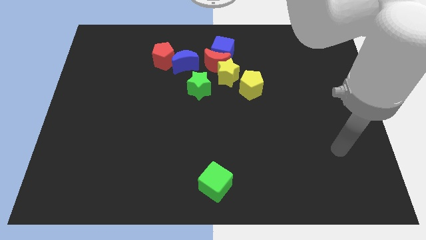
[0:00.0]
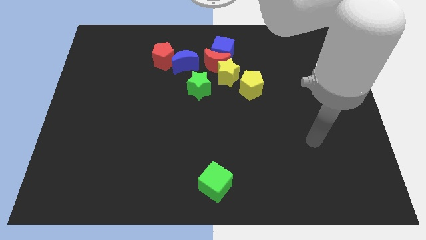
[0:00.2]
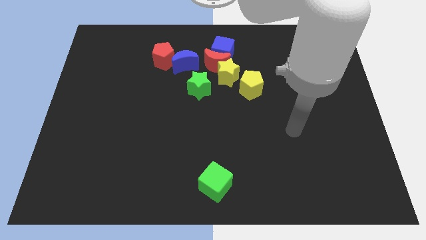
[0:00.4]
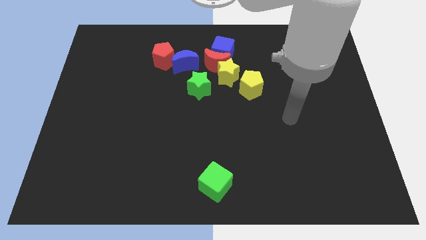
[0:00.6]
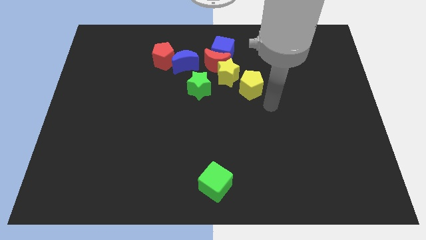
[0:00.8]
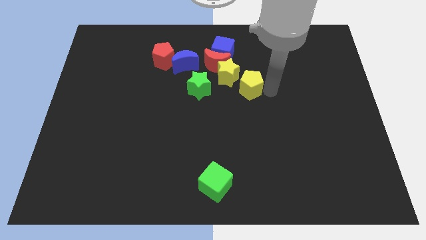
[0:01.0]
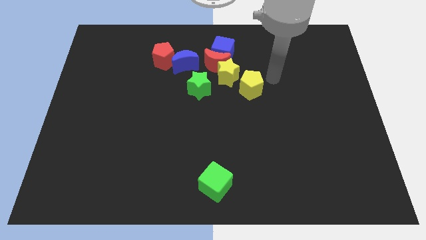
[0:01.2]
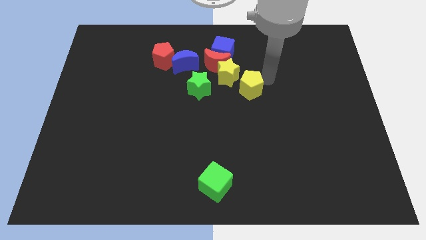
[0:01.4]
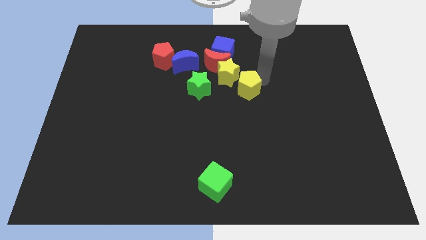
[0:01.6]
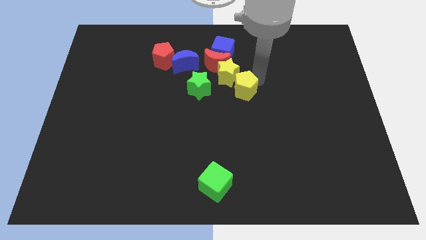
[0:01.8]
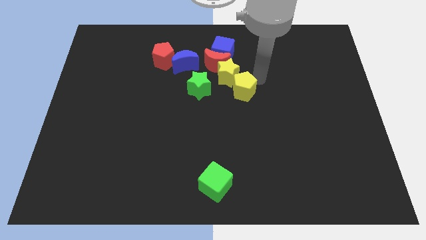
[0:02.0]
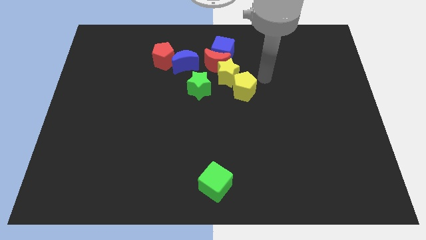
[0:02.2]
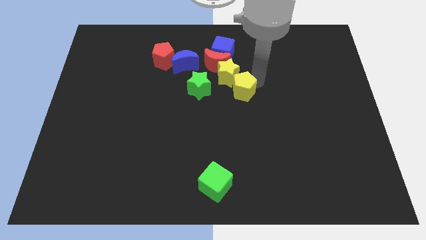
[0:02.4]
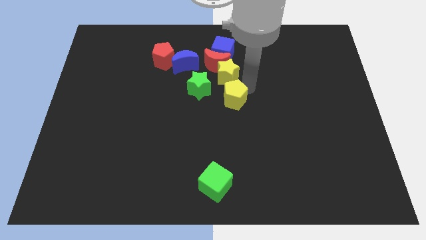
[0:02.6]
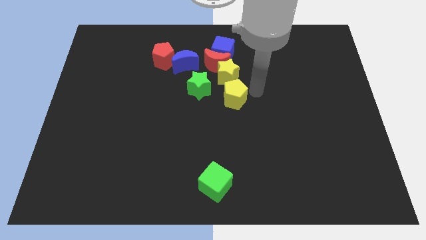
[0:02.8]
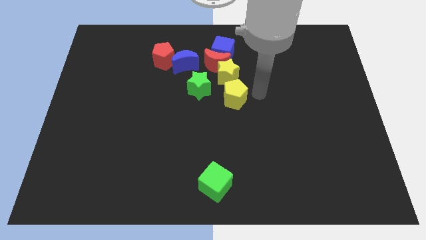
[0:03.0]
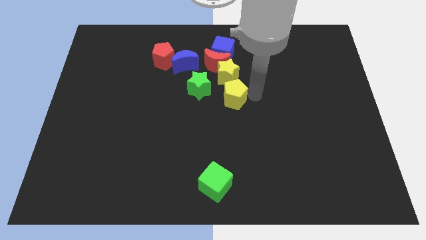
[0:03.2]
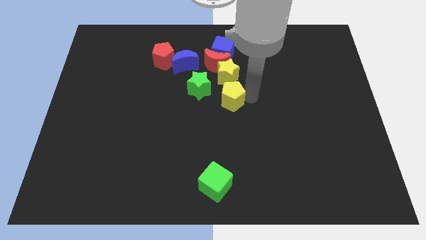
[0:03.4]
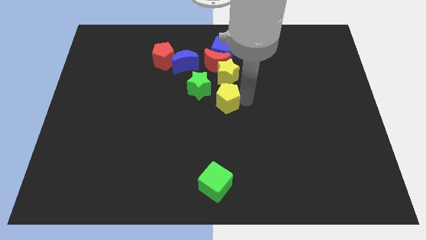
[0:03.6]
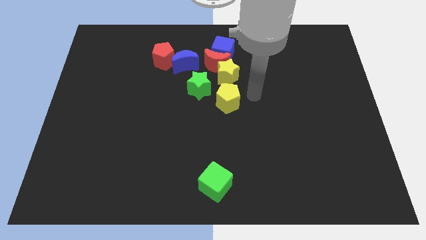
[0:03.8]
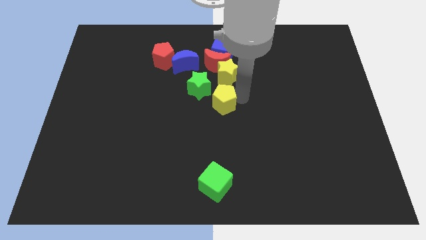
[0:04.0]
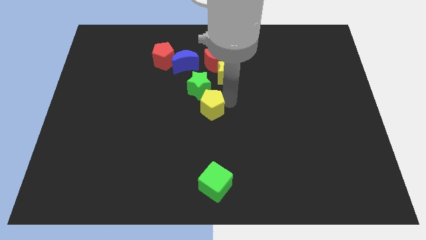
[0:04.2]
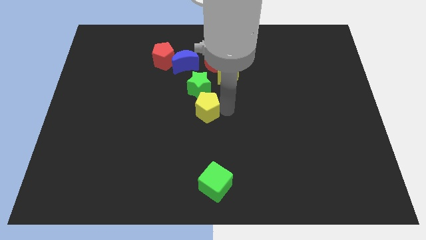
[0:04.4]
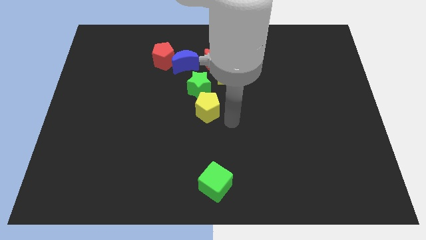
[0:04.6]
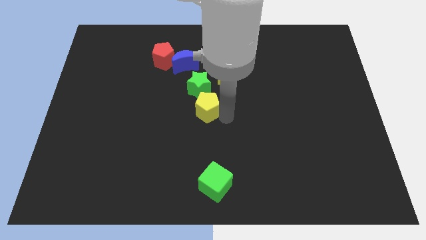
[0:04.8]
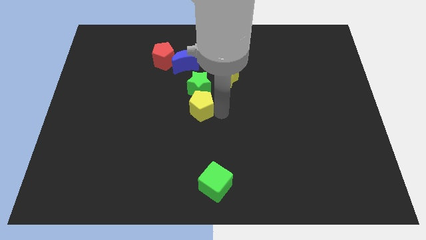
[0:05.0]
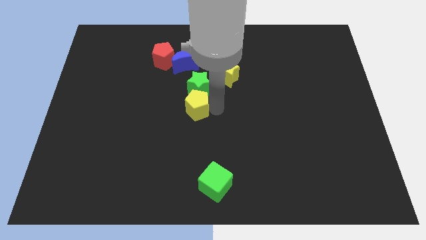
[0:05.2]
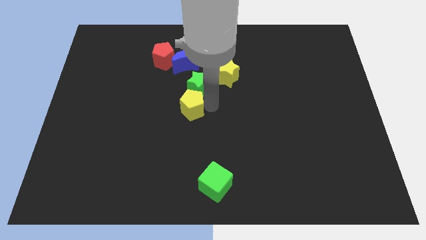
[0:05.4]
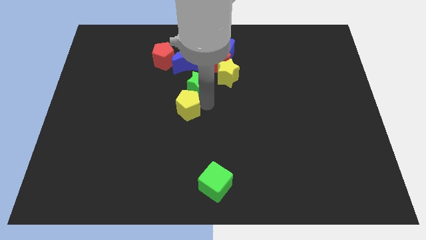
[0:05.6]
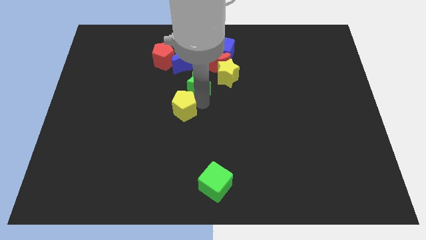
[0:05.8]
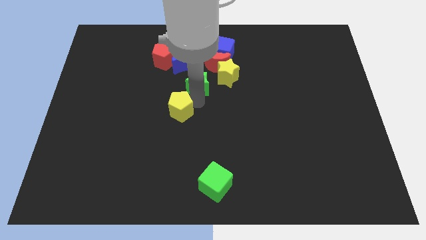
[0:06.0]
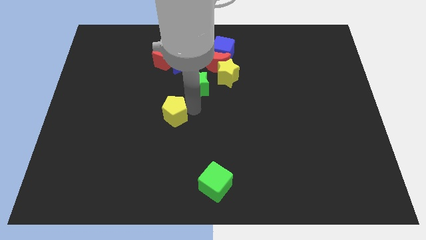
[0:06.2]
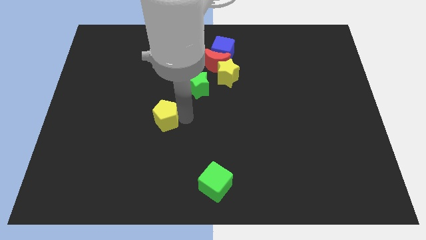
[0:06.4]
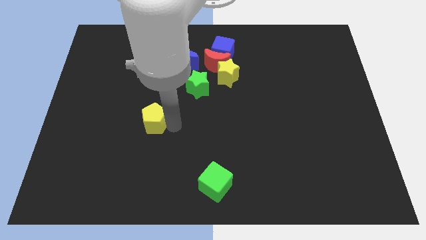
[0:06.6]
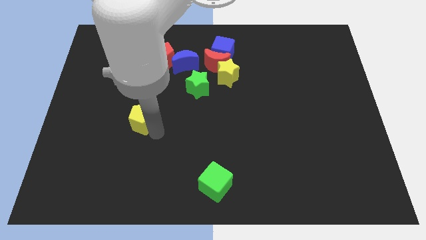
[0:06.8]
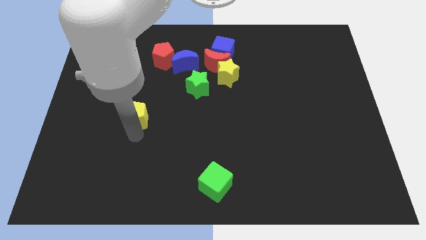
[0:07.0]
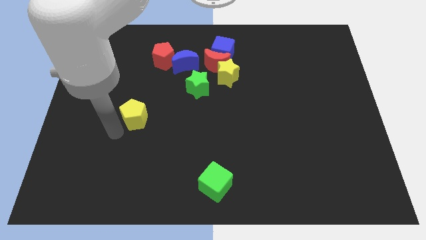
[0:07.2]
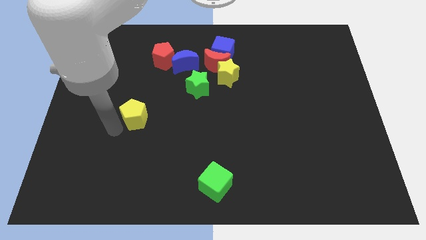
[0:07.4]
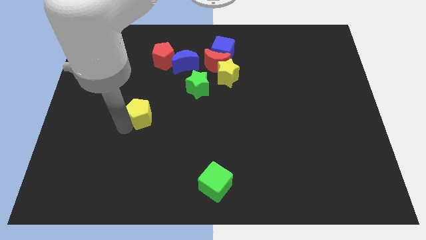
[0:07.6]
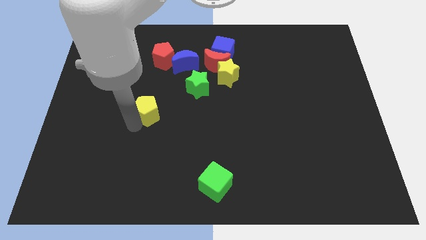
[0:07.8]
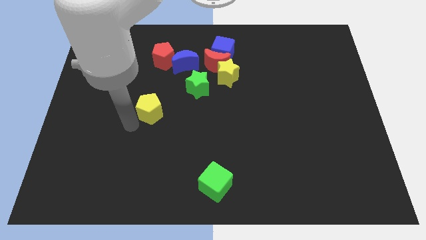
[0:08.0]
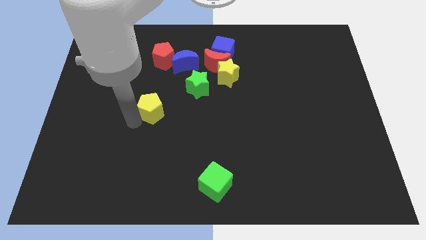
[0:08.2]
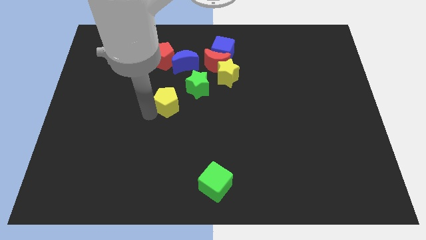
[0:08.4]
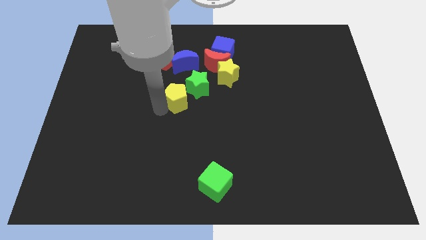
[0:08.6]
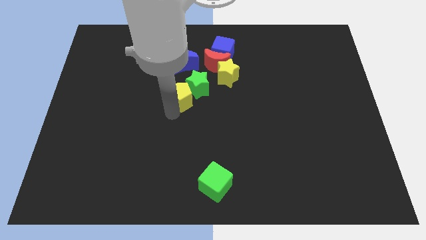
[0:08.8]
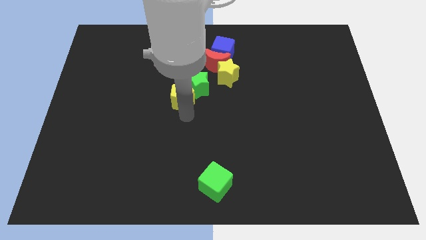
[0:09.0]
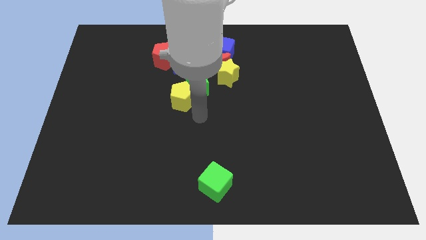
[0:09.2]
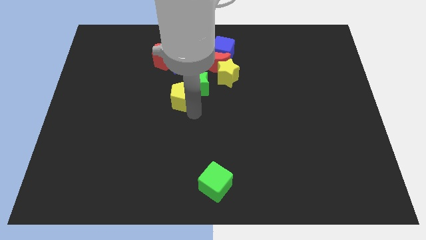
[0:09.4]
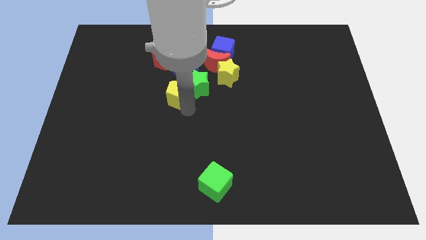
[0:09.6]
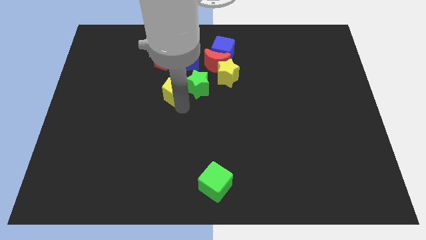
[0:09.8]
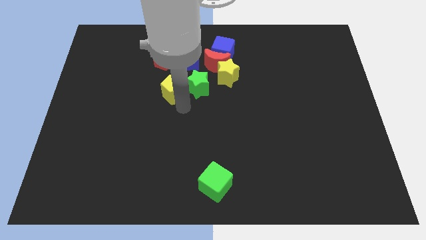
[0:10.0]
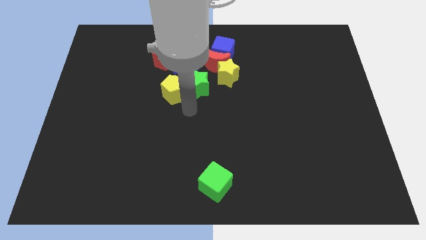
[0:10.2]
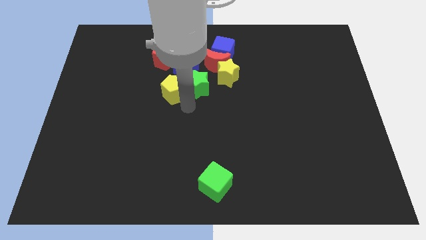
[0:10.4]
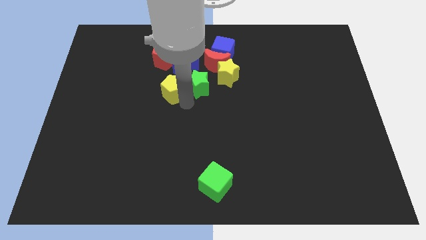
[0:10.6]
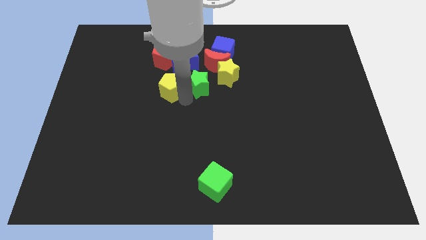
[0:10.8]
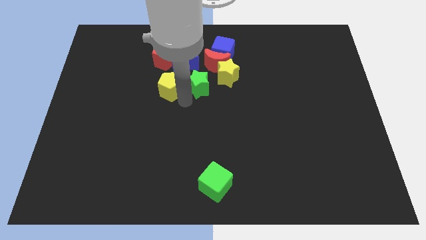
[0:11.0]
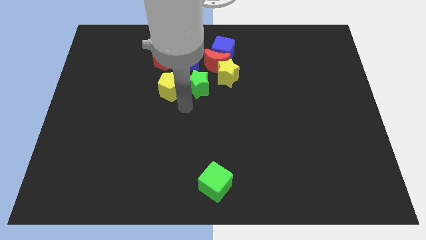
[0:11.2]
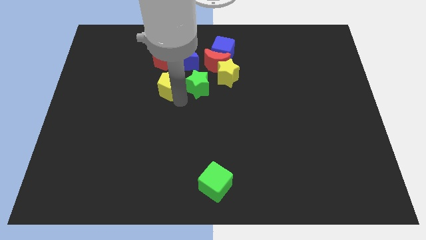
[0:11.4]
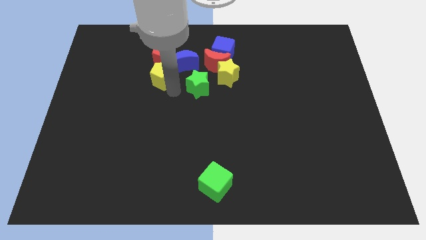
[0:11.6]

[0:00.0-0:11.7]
move the yellow pentagon left of the blue moon

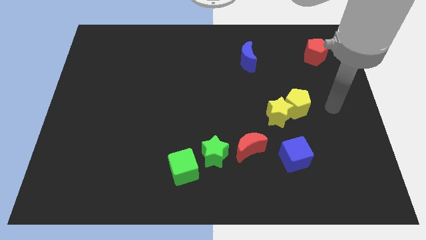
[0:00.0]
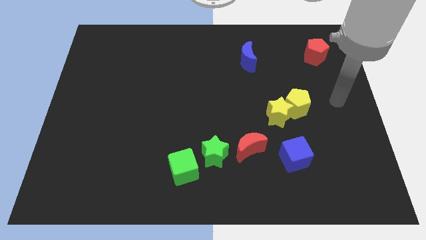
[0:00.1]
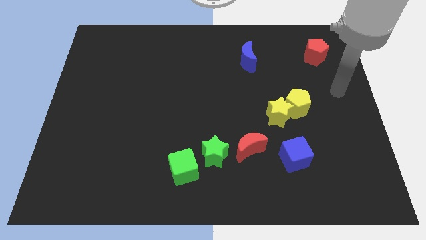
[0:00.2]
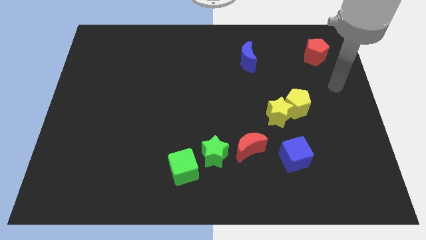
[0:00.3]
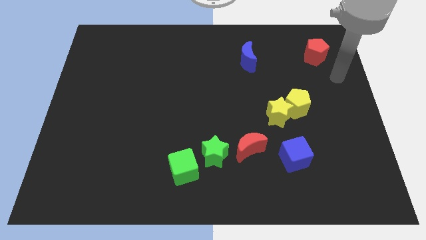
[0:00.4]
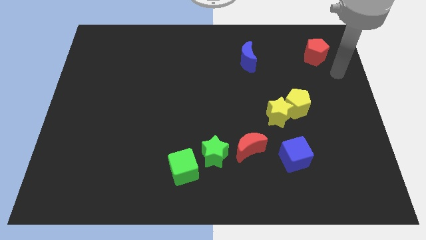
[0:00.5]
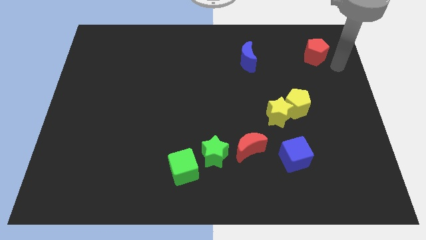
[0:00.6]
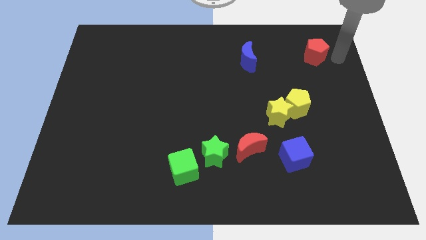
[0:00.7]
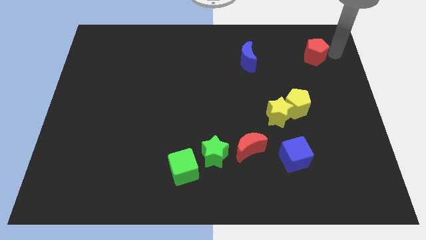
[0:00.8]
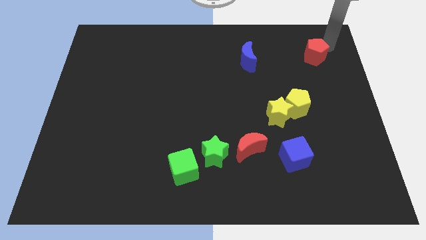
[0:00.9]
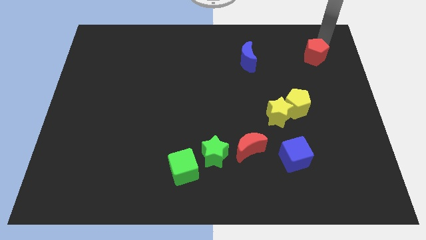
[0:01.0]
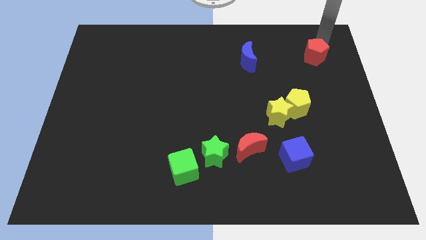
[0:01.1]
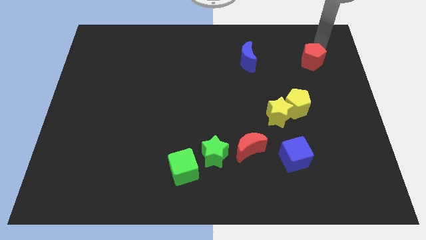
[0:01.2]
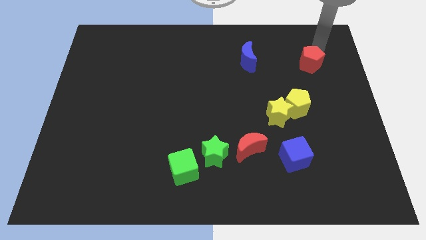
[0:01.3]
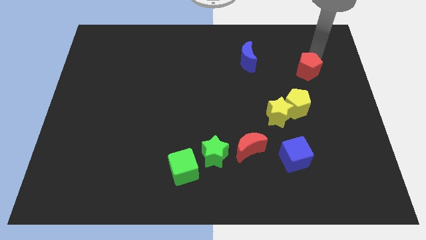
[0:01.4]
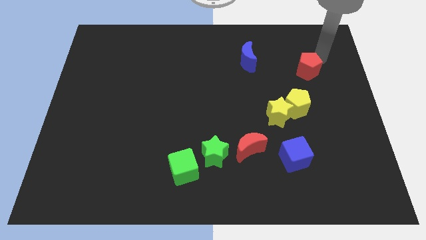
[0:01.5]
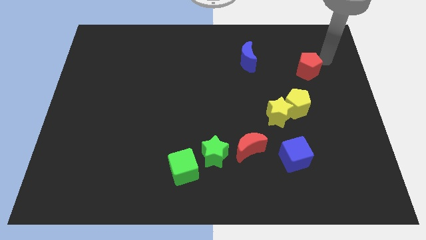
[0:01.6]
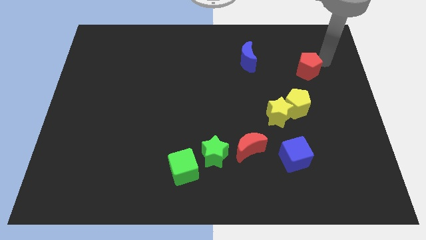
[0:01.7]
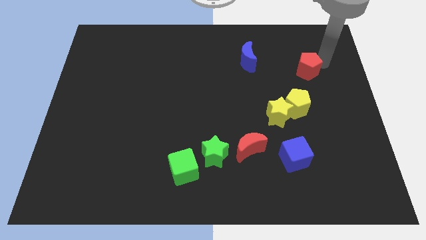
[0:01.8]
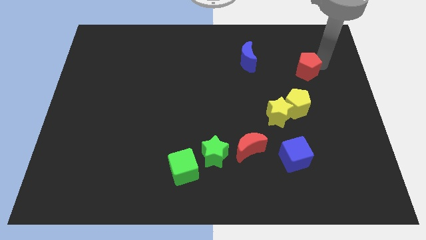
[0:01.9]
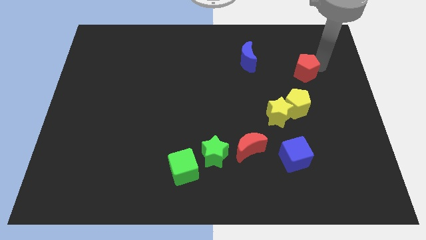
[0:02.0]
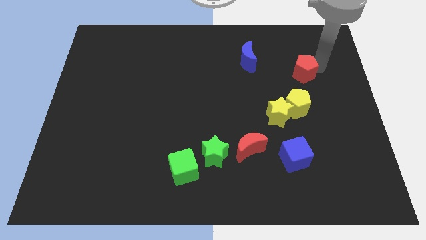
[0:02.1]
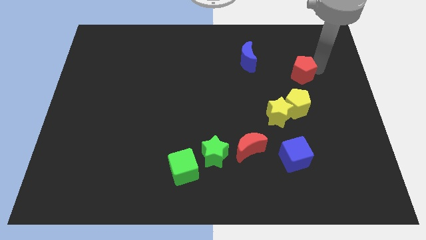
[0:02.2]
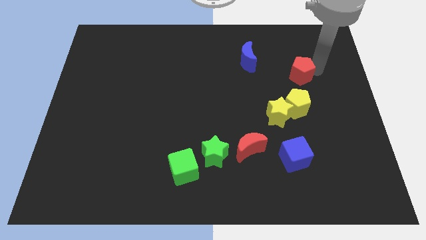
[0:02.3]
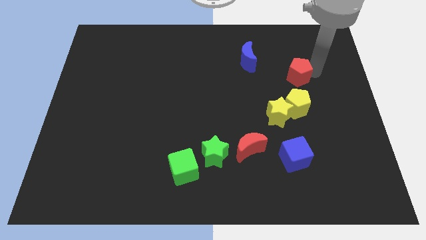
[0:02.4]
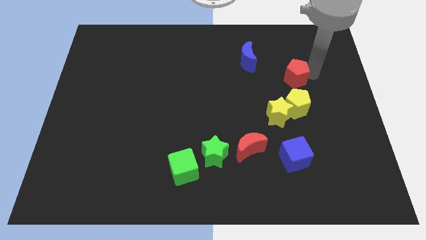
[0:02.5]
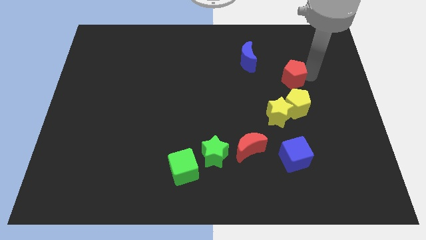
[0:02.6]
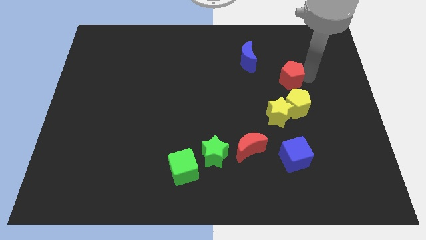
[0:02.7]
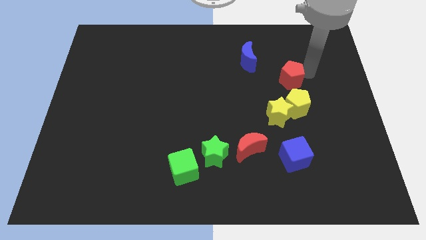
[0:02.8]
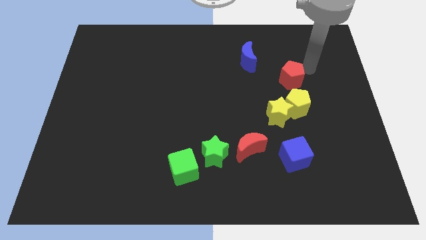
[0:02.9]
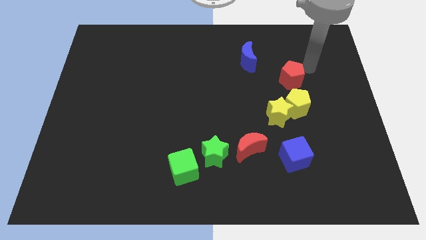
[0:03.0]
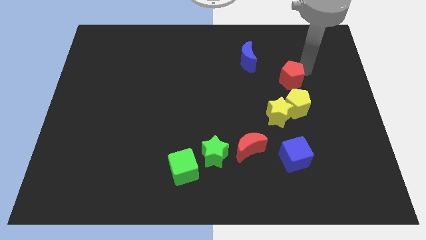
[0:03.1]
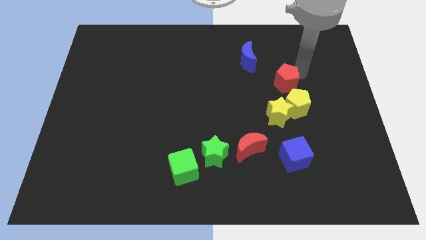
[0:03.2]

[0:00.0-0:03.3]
slide the red pentagon diagonally up and to the left of the yellow pentagon
